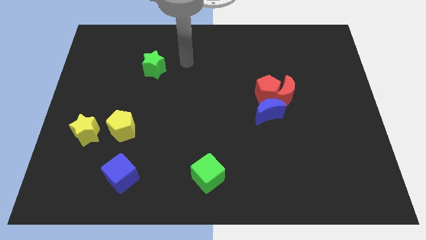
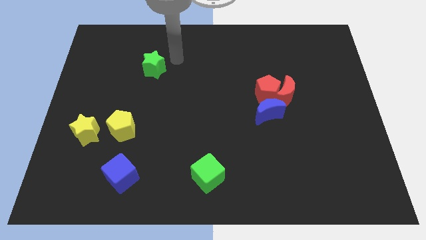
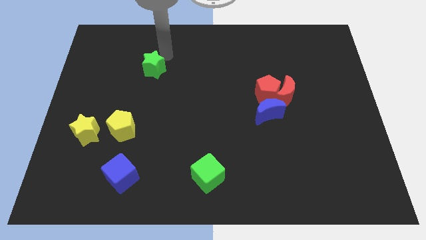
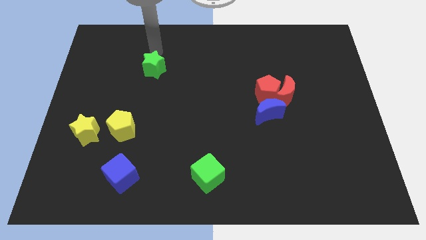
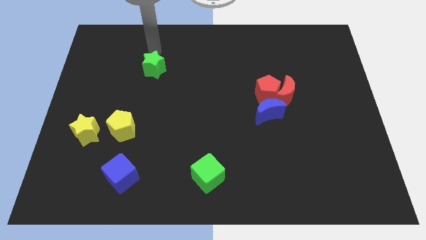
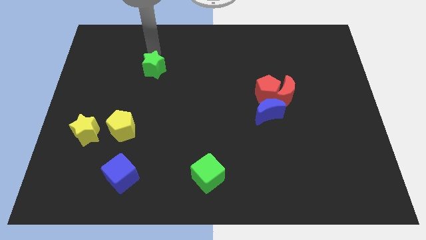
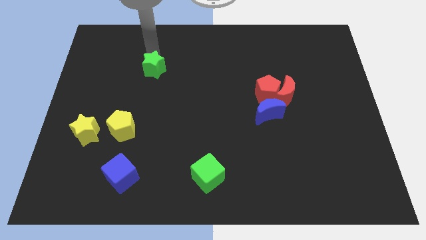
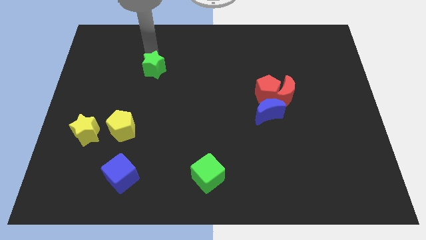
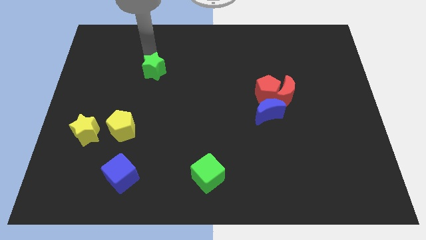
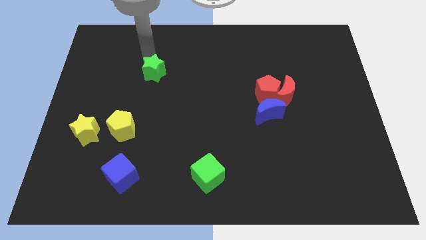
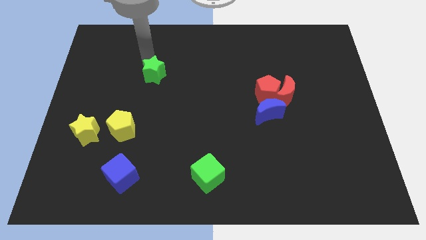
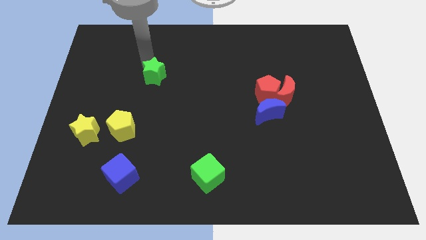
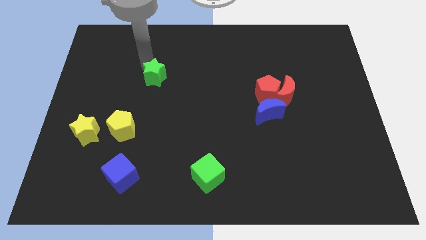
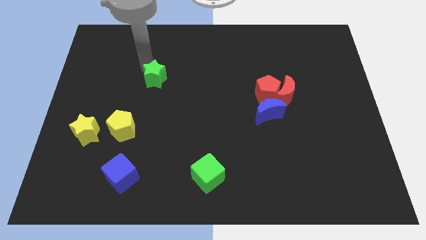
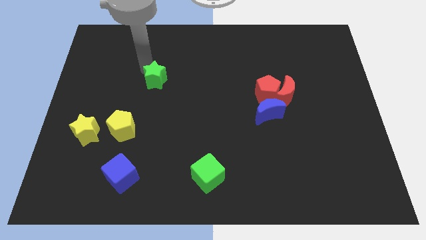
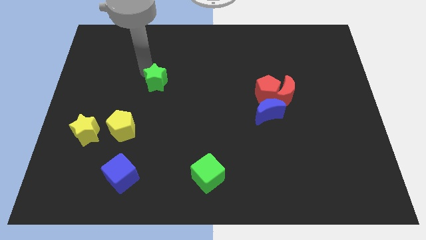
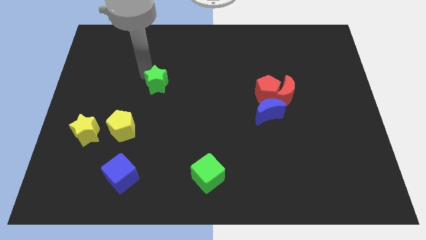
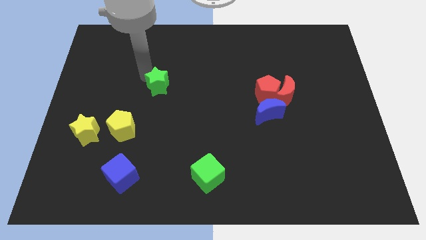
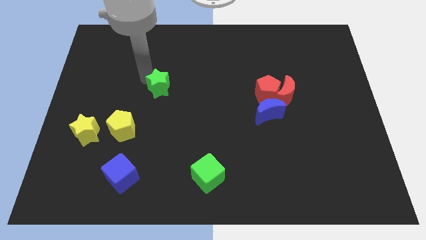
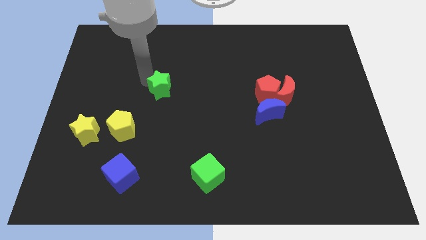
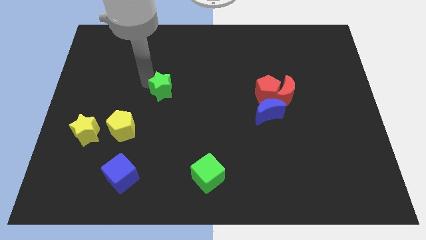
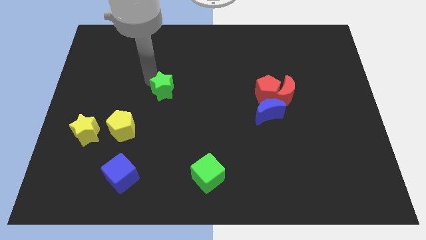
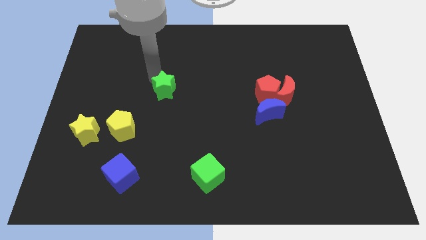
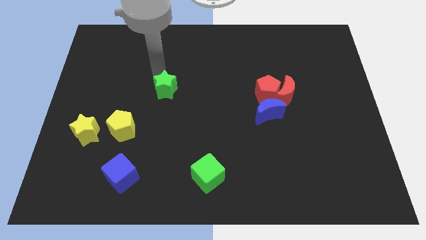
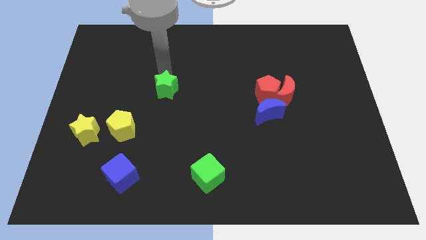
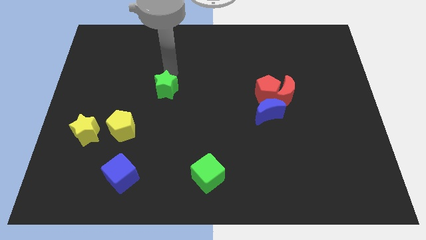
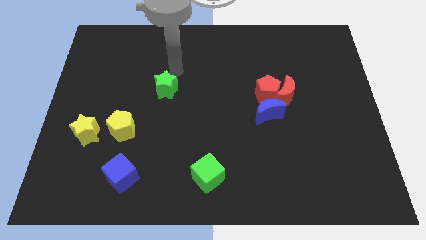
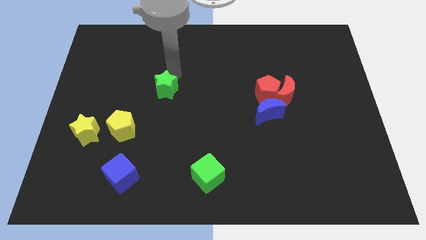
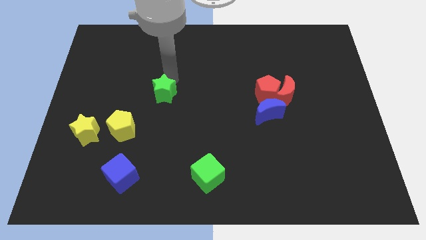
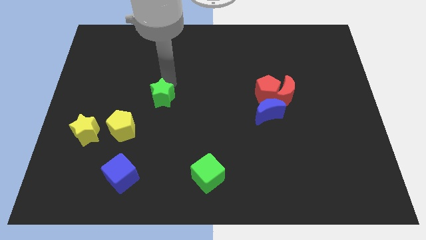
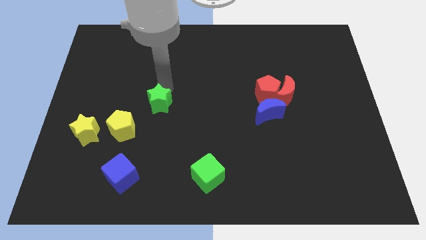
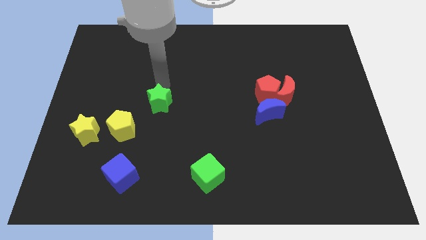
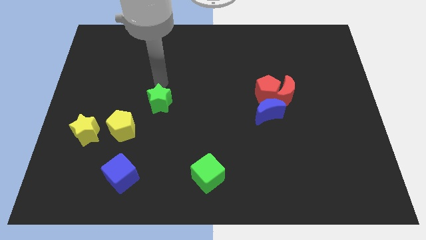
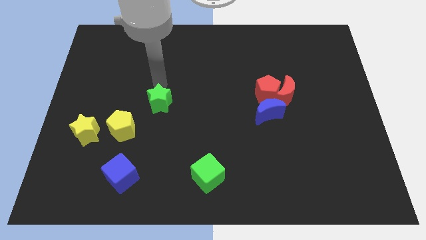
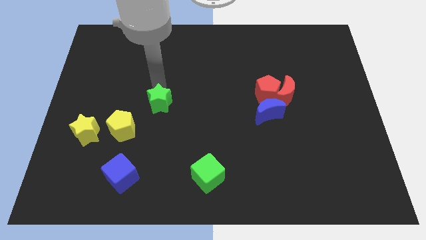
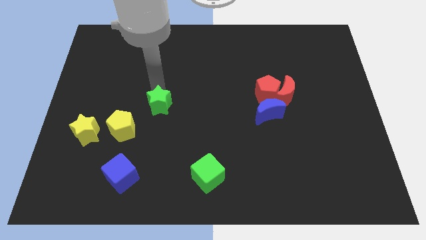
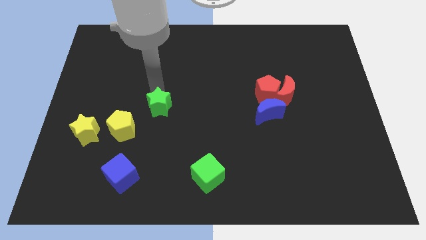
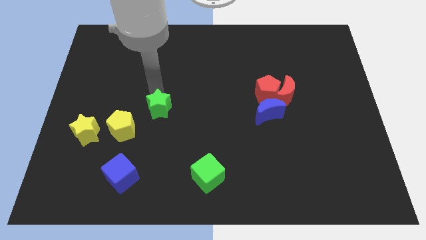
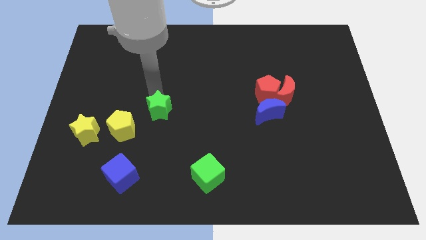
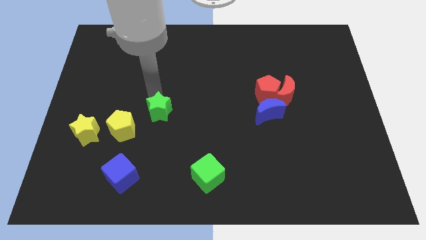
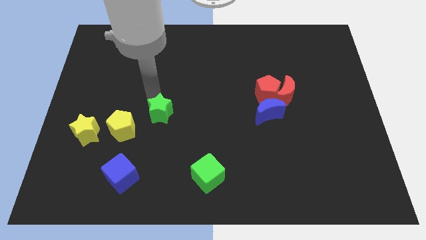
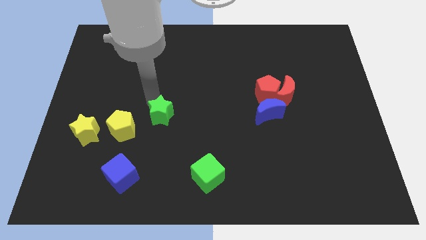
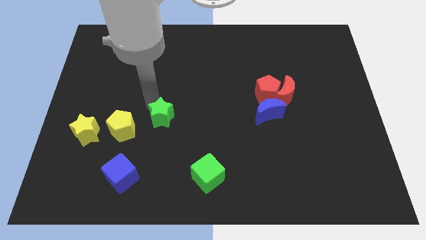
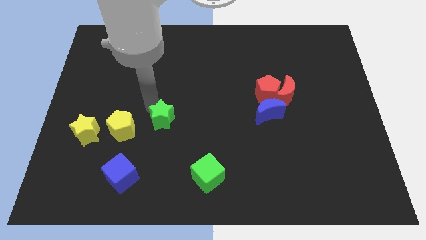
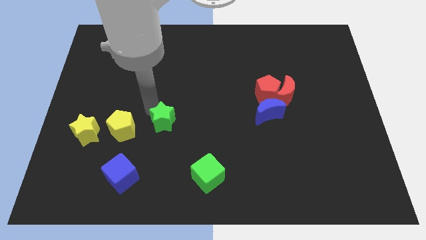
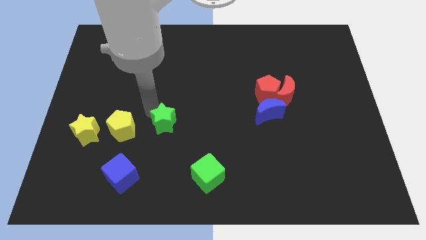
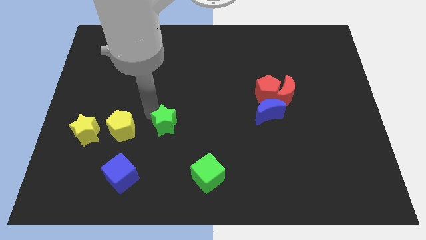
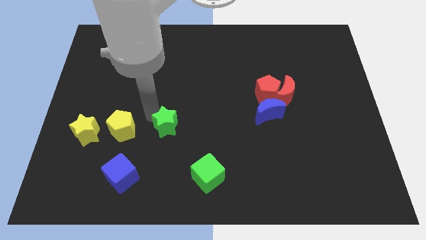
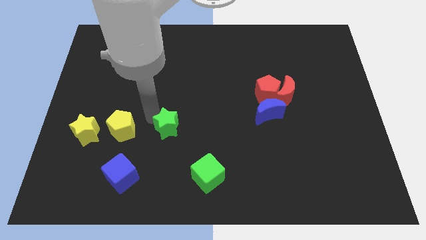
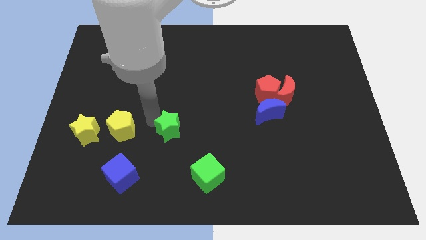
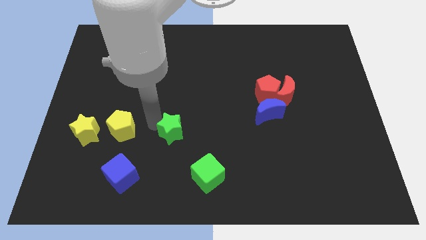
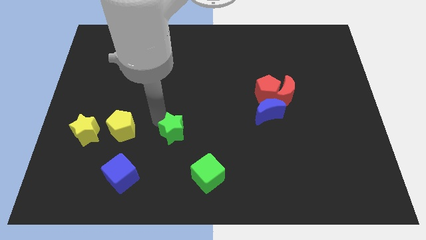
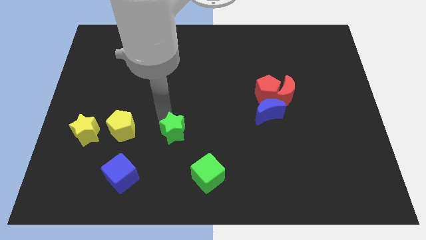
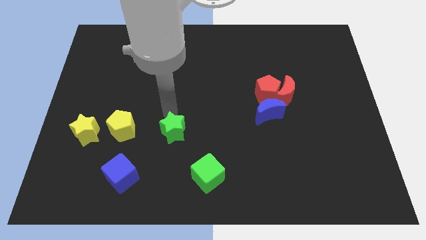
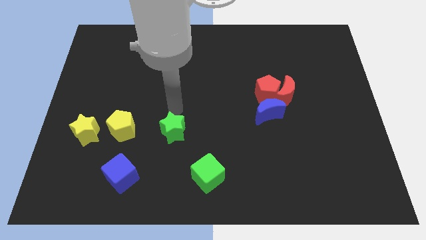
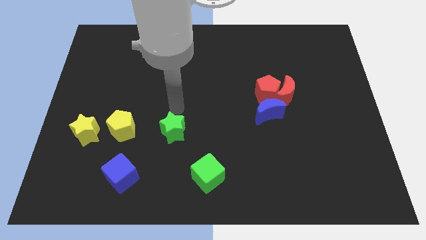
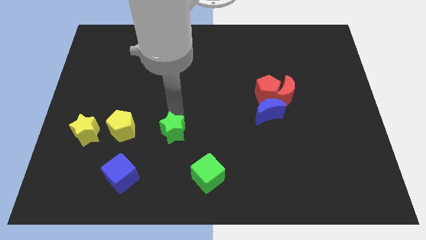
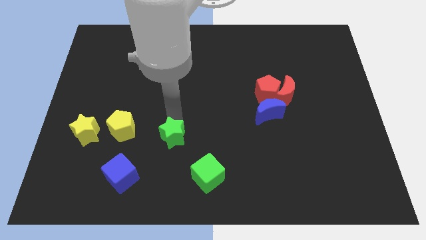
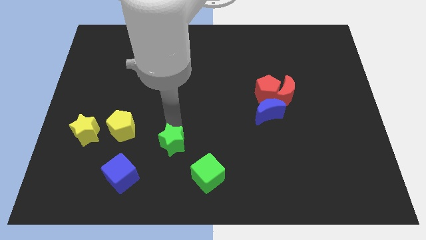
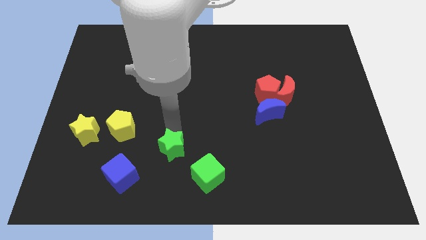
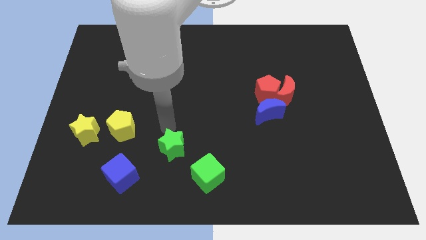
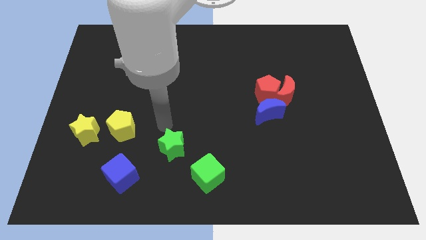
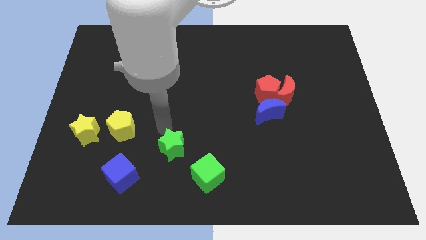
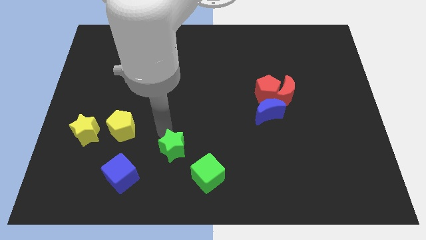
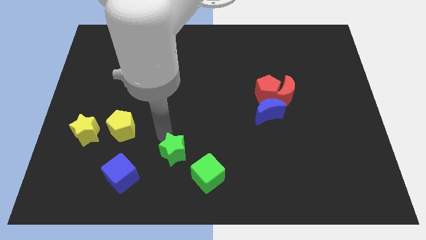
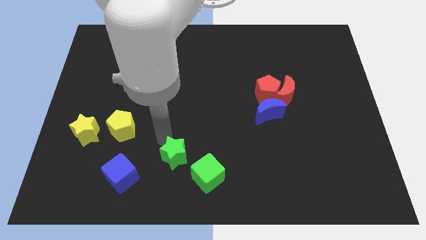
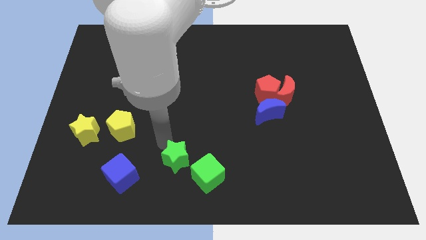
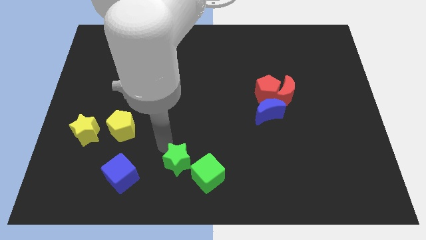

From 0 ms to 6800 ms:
push the green star to the bottom side

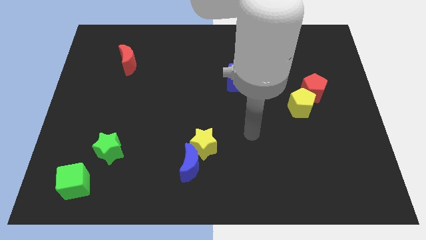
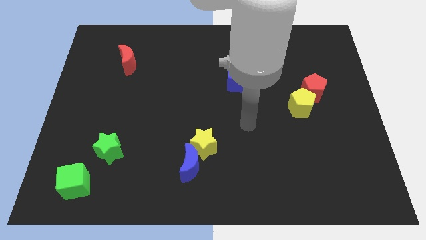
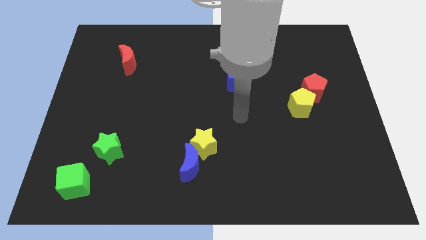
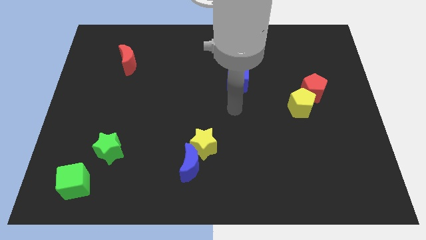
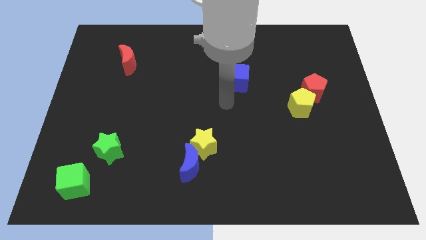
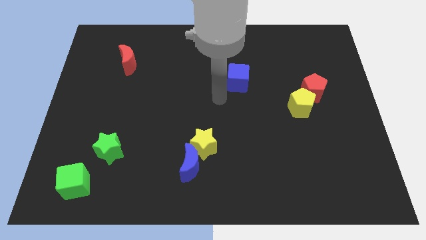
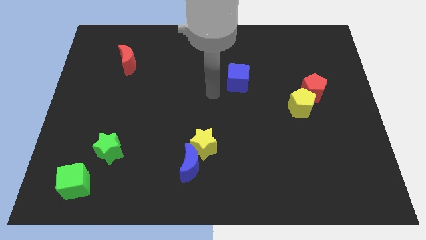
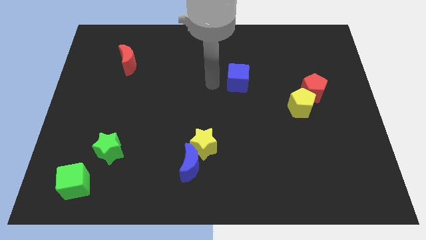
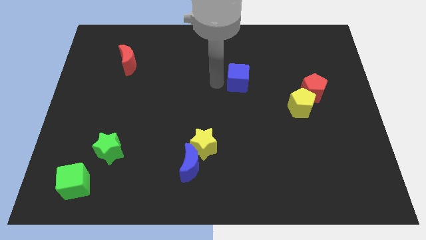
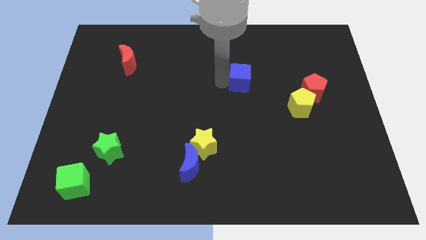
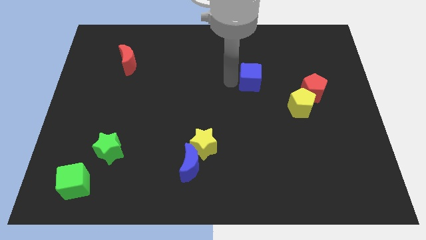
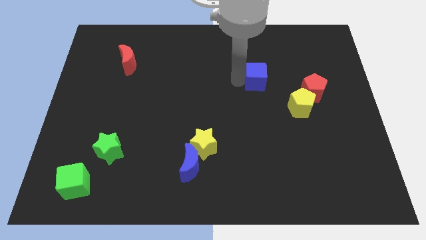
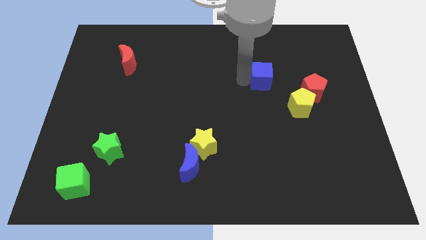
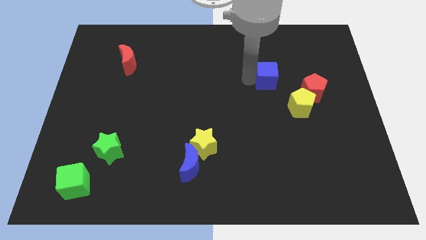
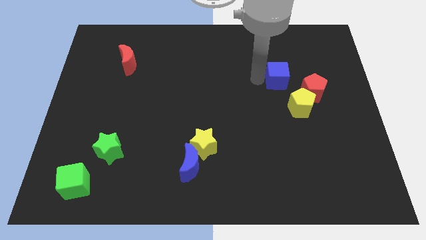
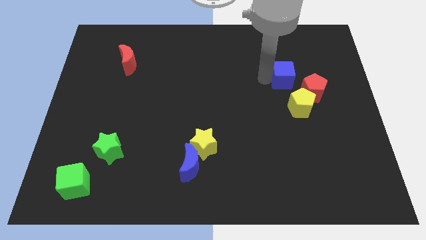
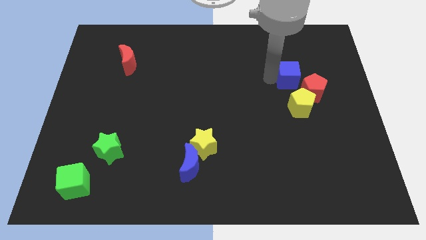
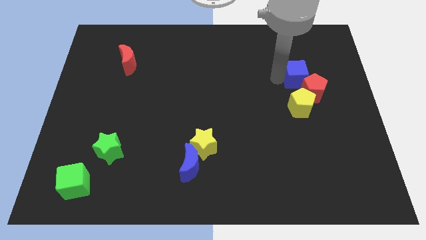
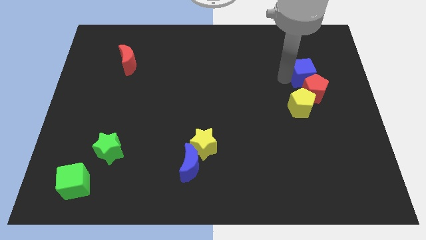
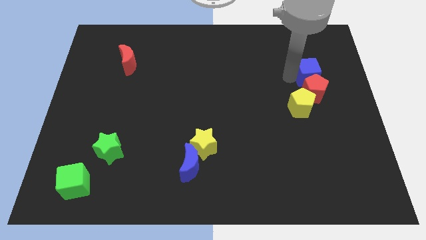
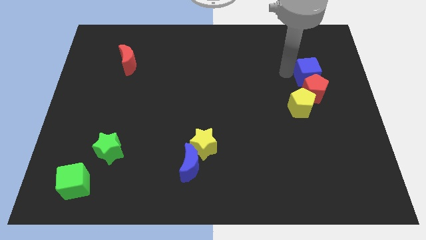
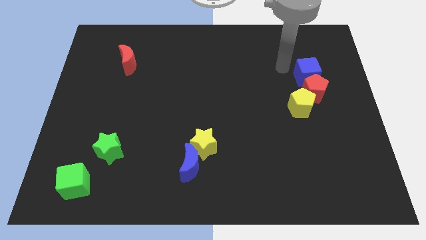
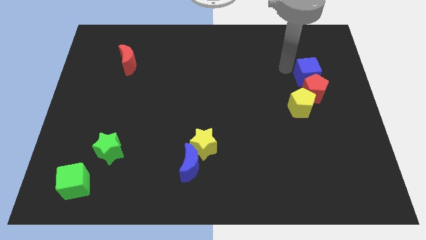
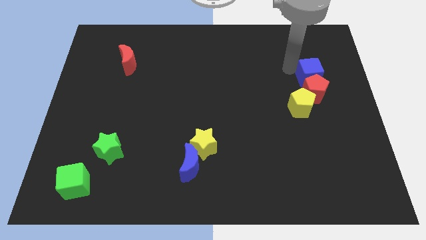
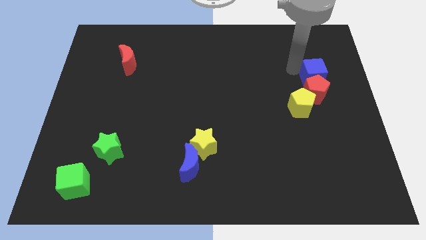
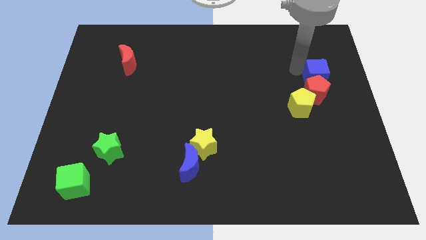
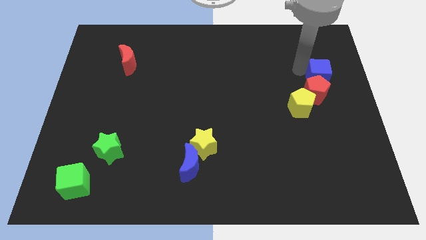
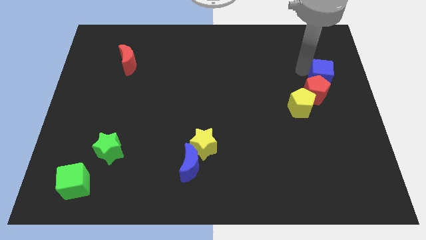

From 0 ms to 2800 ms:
push the blue cube to the right side of the board
